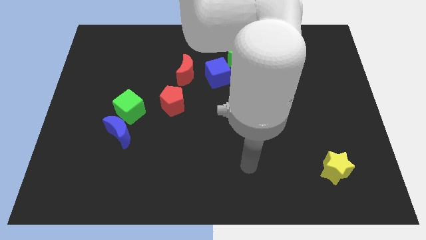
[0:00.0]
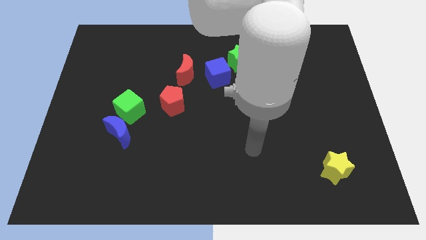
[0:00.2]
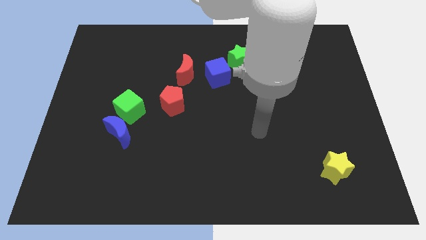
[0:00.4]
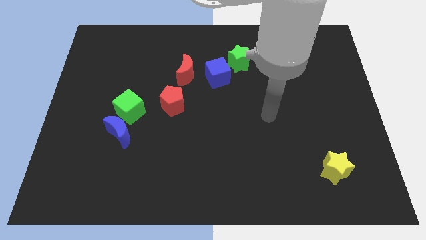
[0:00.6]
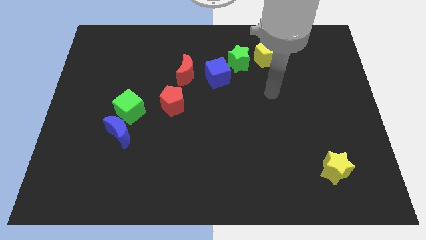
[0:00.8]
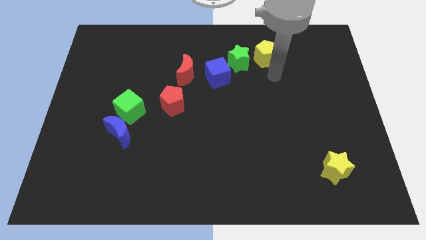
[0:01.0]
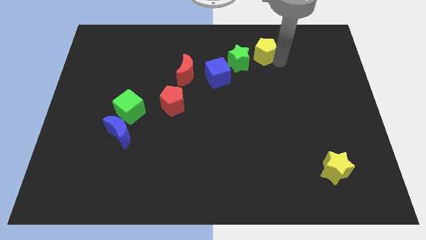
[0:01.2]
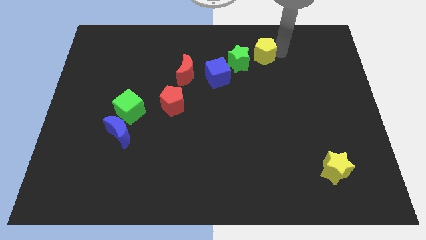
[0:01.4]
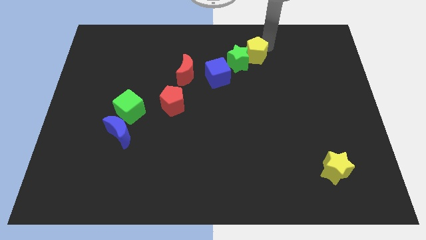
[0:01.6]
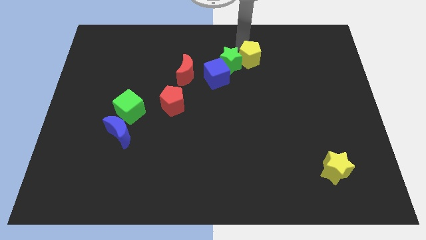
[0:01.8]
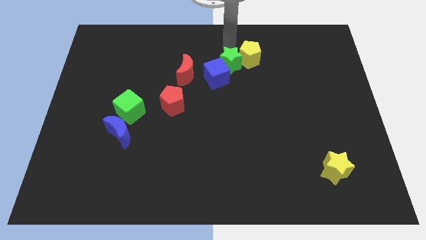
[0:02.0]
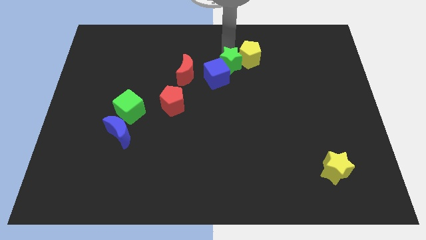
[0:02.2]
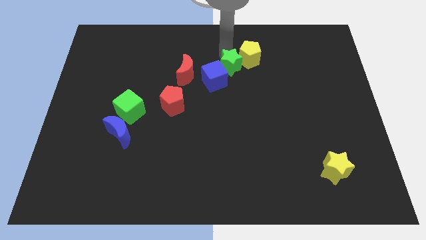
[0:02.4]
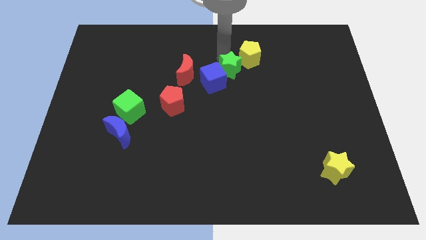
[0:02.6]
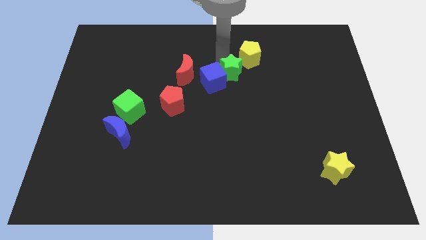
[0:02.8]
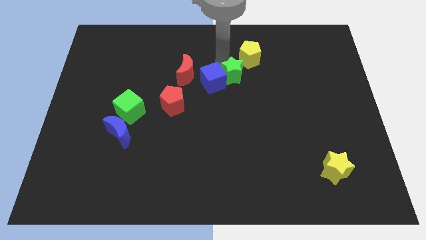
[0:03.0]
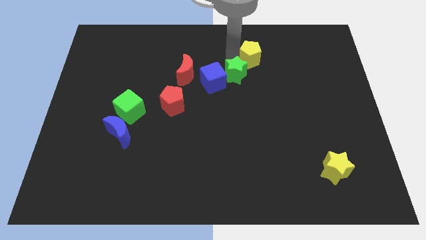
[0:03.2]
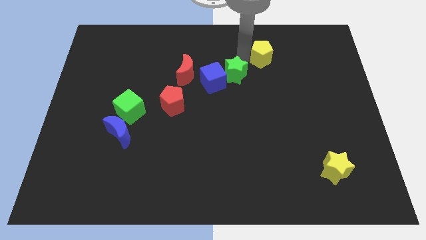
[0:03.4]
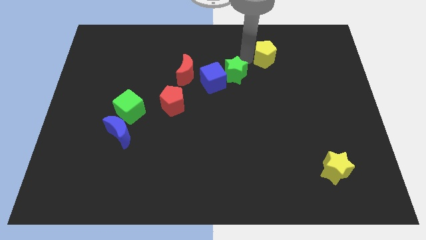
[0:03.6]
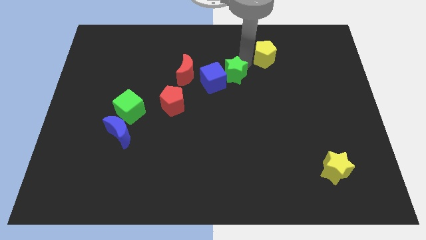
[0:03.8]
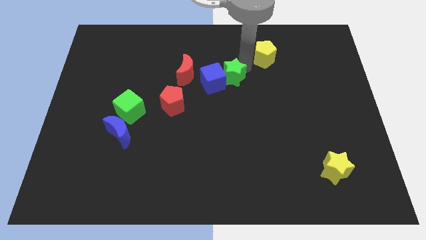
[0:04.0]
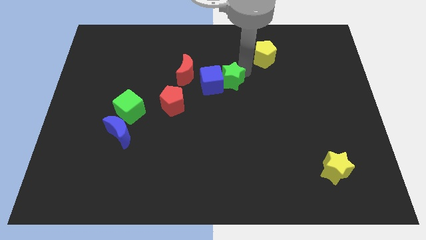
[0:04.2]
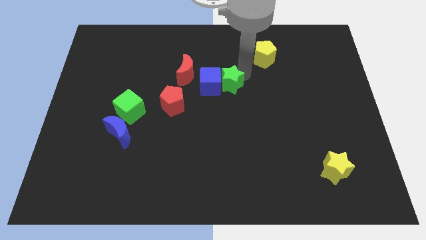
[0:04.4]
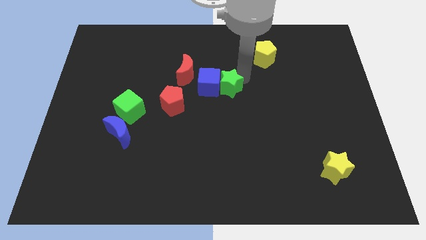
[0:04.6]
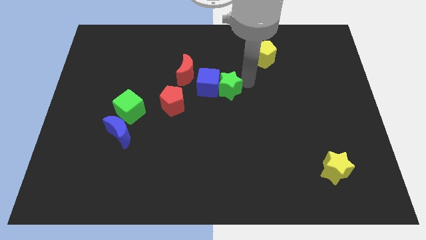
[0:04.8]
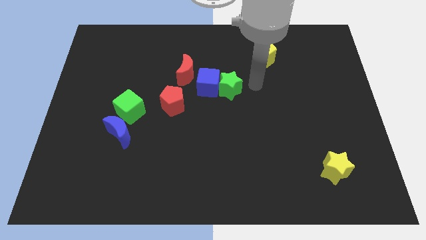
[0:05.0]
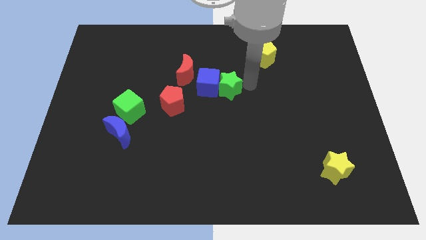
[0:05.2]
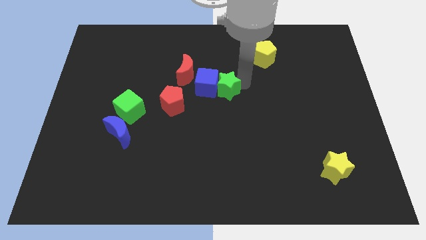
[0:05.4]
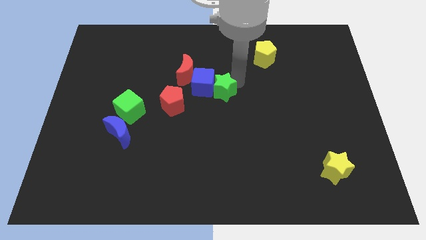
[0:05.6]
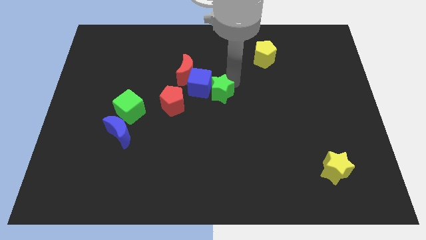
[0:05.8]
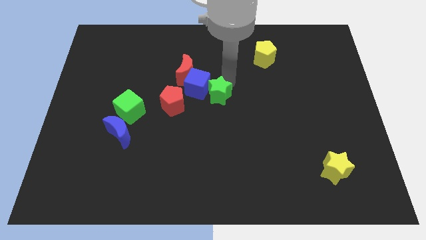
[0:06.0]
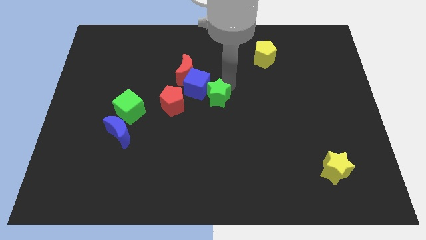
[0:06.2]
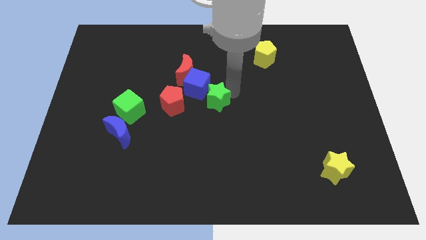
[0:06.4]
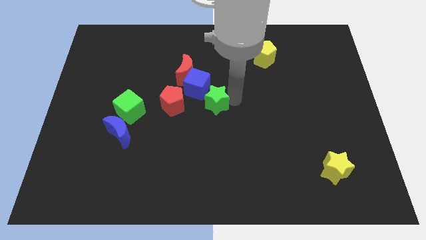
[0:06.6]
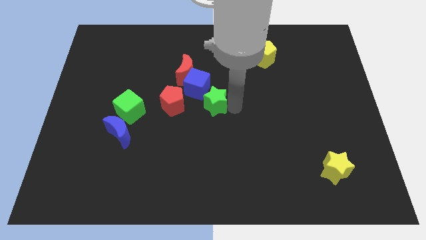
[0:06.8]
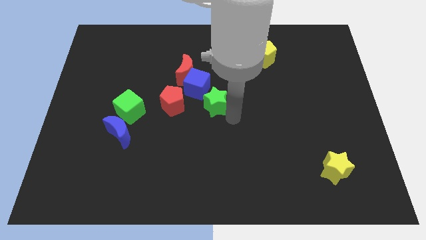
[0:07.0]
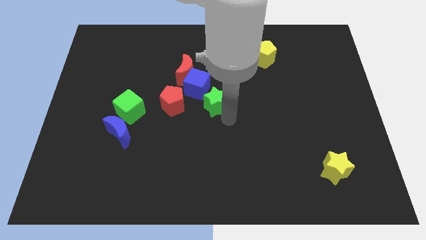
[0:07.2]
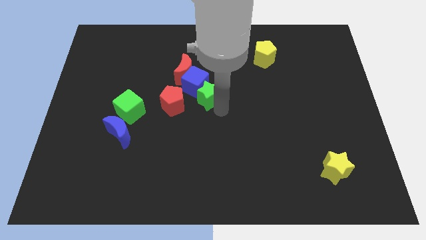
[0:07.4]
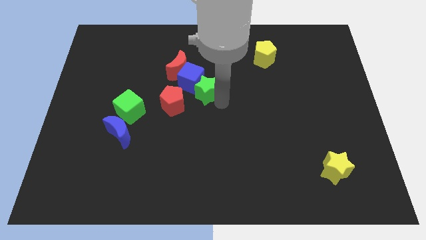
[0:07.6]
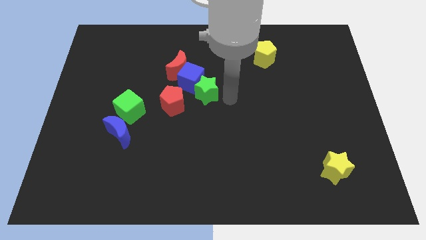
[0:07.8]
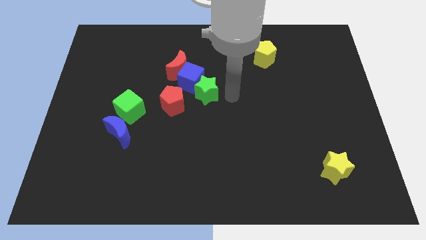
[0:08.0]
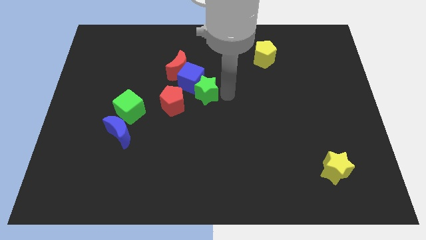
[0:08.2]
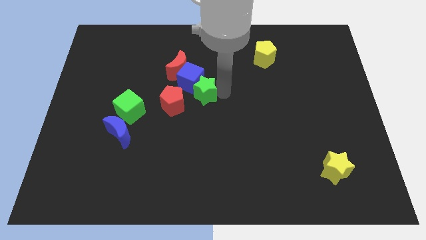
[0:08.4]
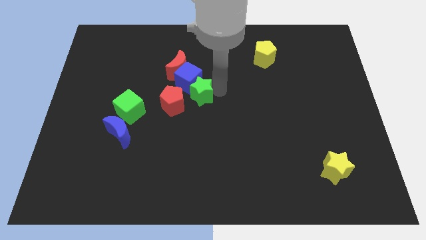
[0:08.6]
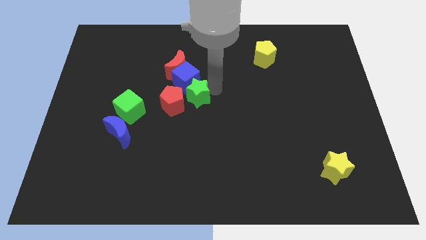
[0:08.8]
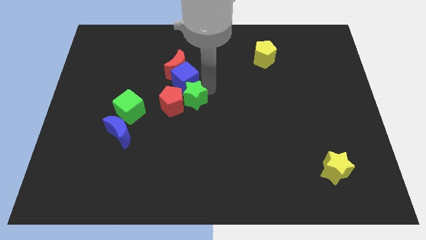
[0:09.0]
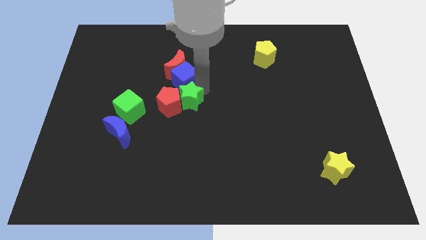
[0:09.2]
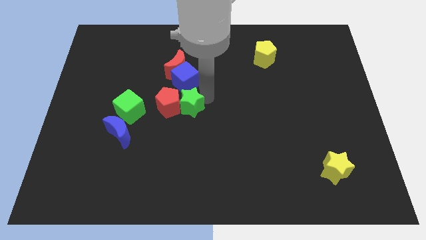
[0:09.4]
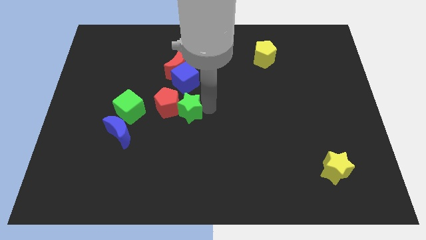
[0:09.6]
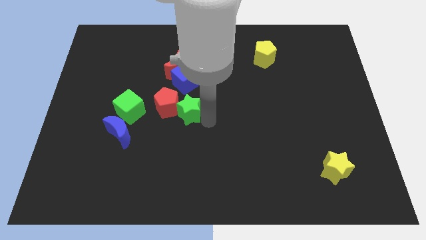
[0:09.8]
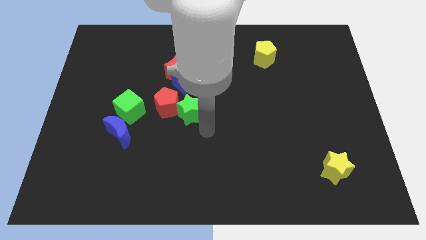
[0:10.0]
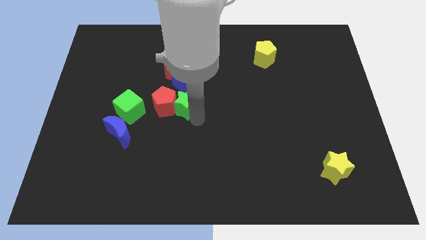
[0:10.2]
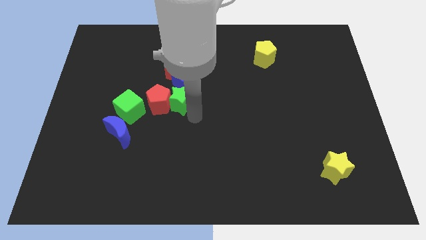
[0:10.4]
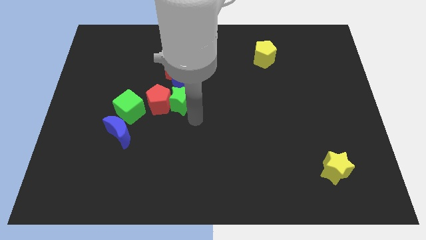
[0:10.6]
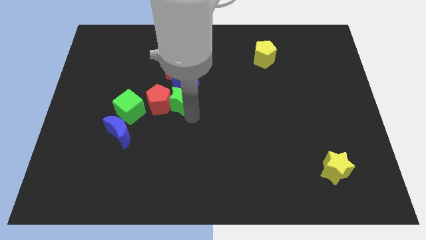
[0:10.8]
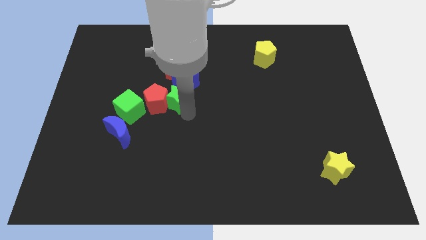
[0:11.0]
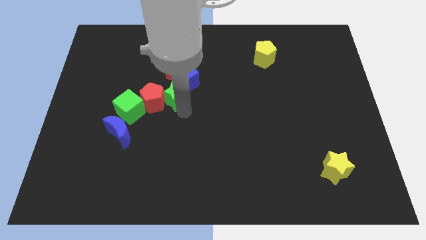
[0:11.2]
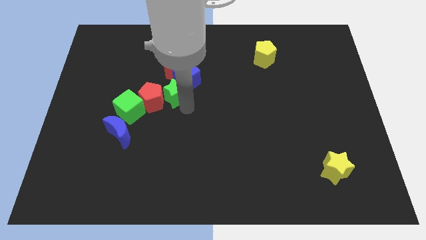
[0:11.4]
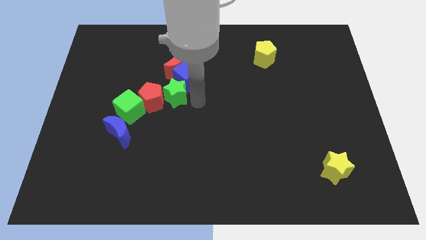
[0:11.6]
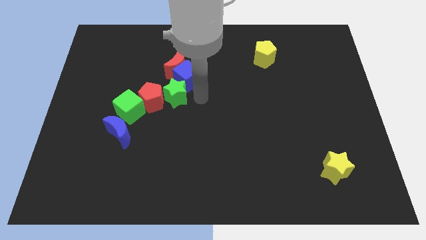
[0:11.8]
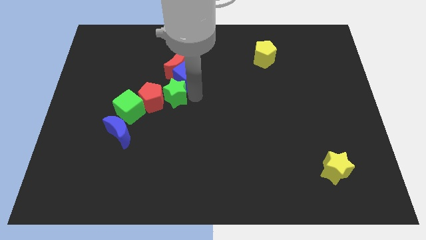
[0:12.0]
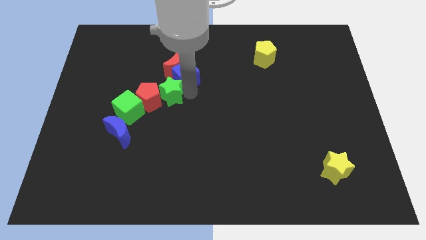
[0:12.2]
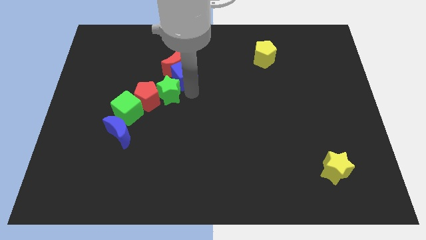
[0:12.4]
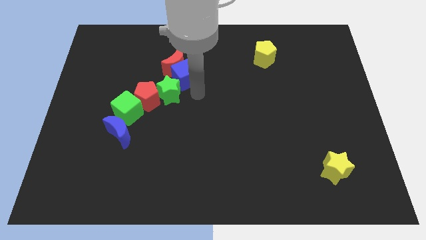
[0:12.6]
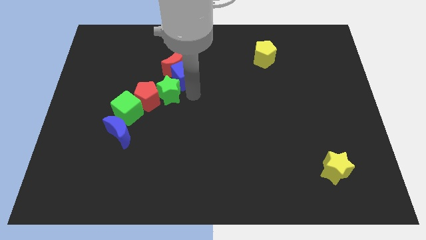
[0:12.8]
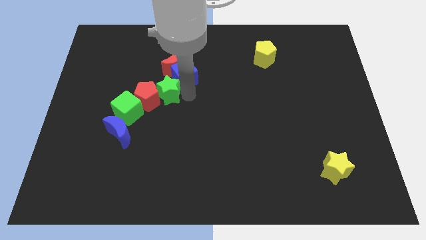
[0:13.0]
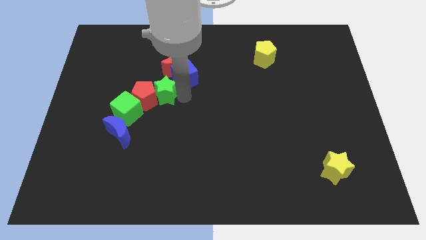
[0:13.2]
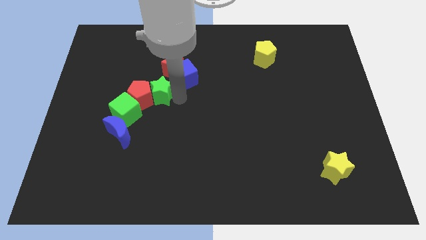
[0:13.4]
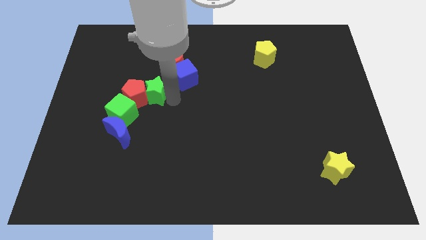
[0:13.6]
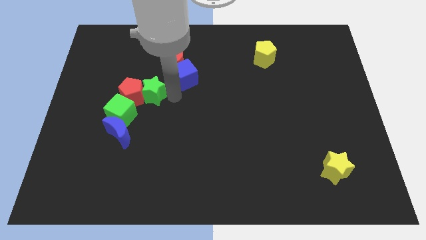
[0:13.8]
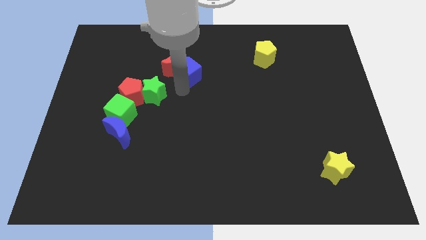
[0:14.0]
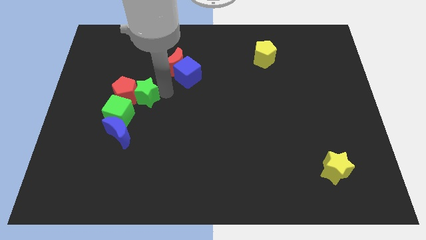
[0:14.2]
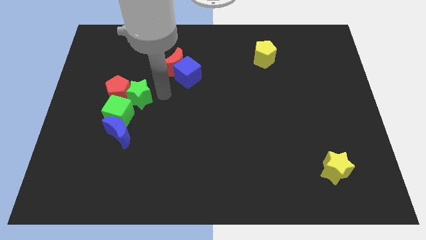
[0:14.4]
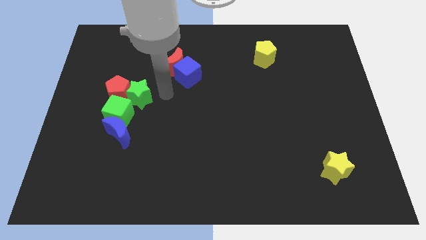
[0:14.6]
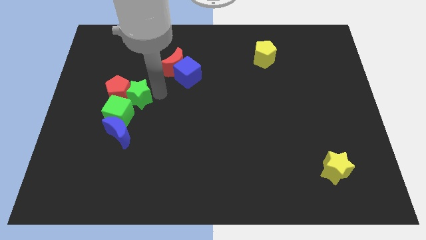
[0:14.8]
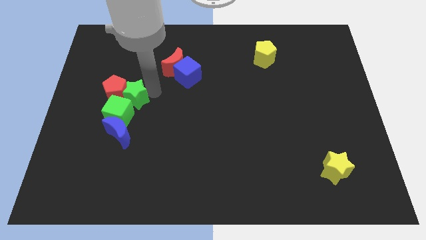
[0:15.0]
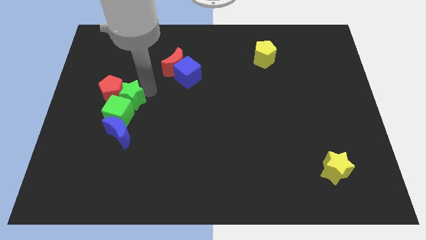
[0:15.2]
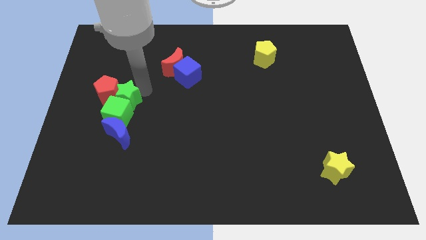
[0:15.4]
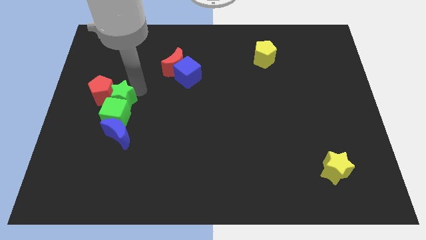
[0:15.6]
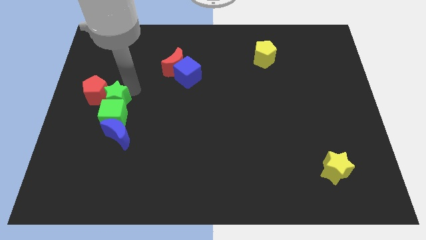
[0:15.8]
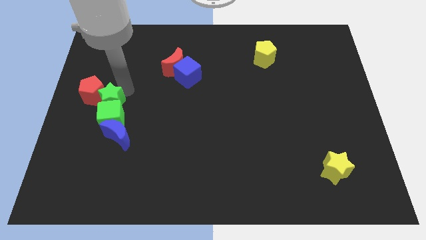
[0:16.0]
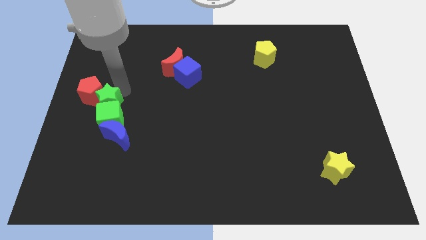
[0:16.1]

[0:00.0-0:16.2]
slide the green star to the top left of the blue moon
